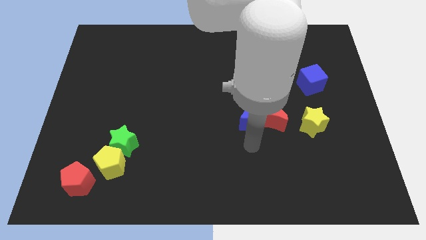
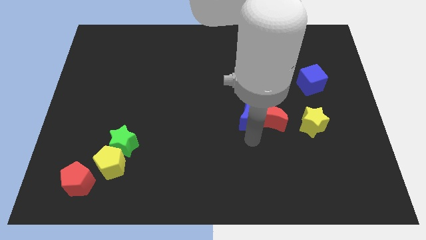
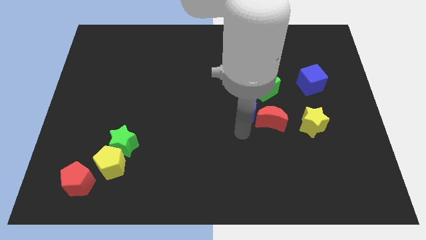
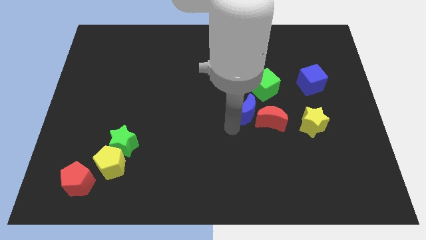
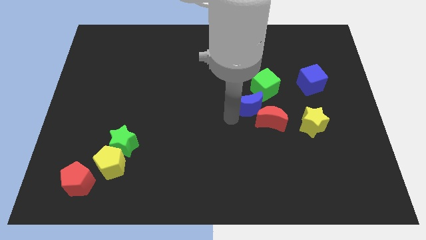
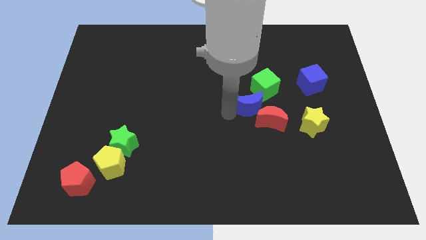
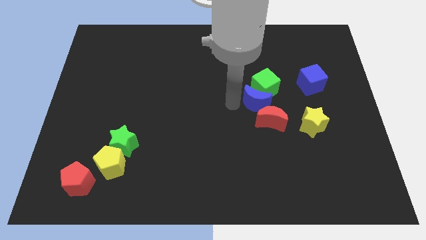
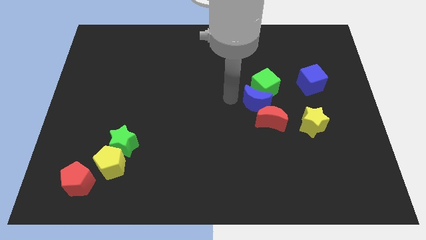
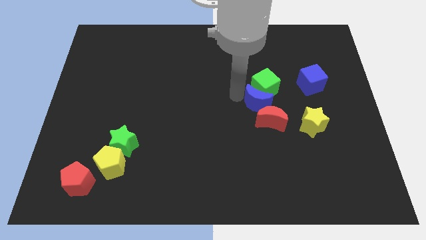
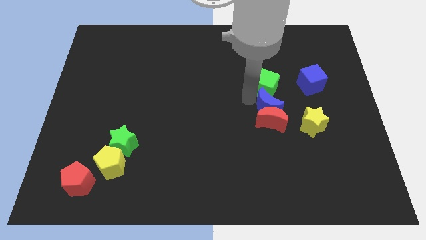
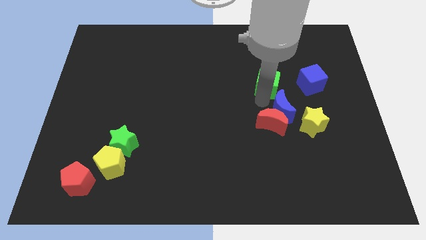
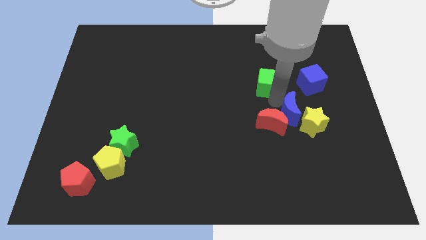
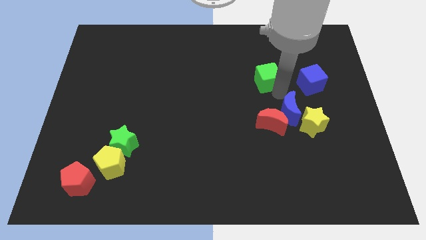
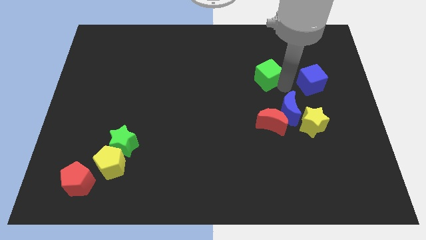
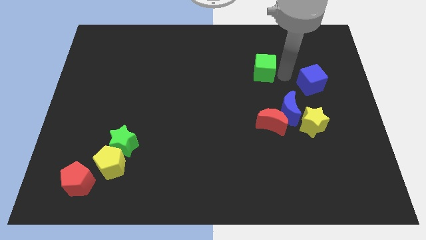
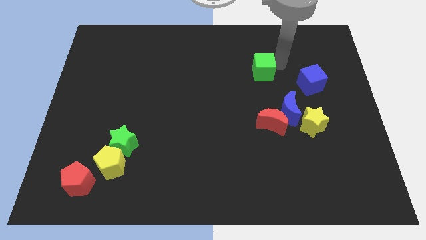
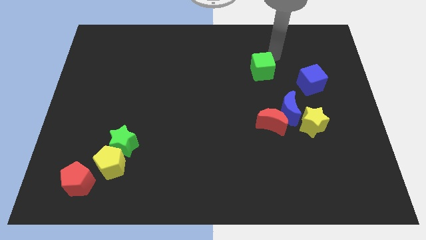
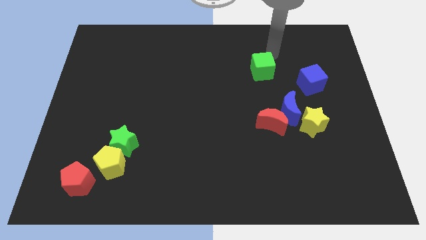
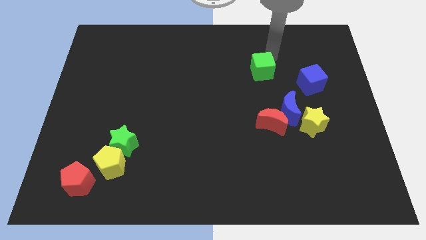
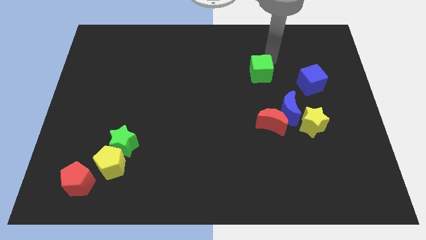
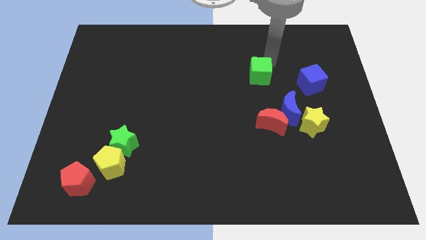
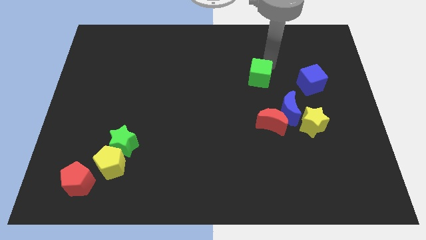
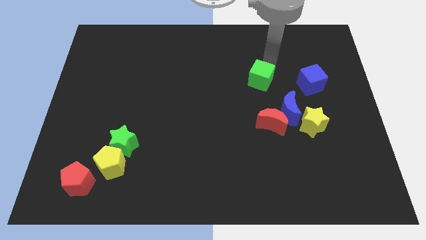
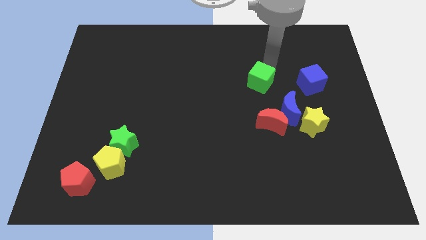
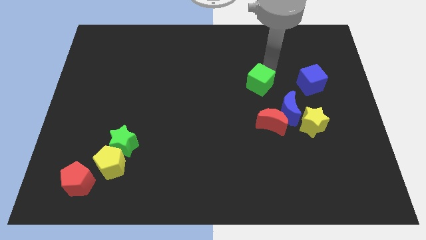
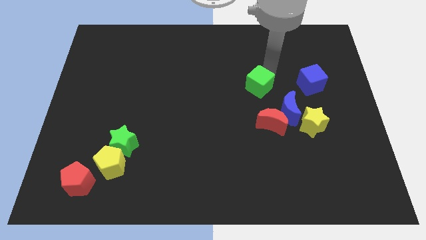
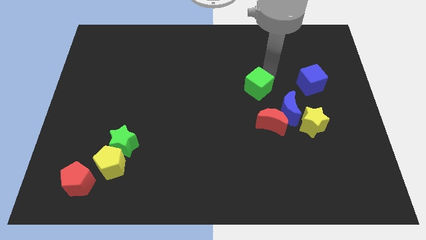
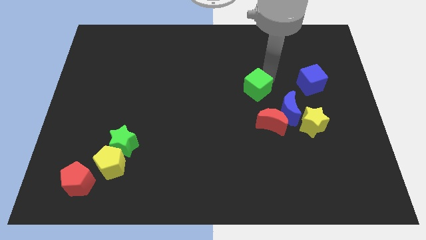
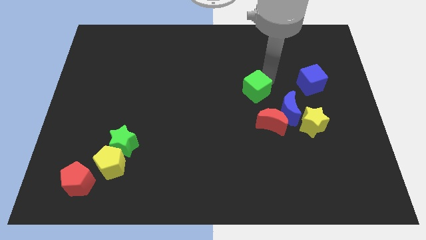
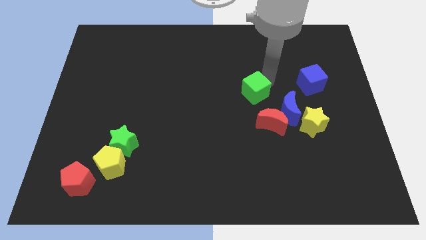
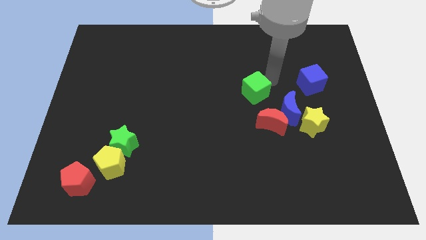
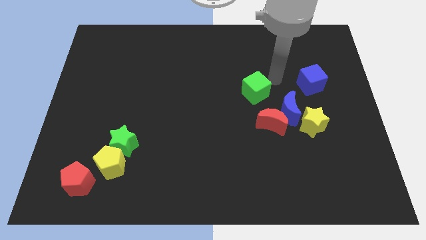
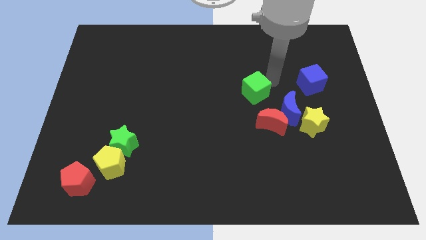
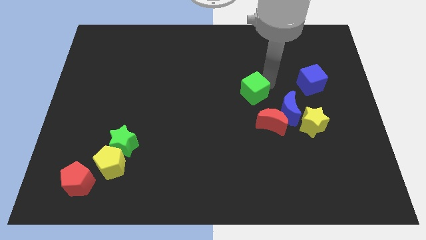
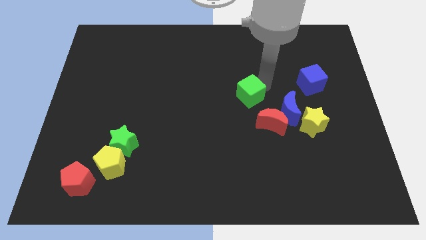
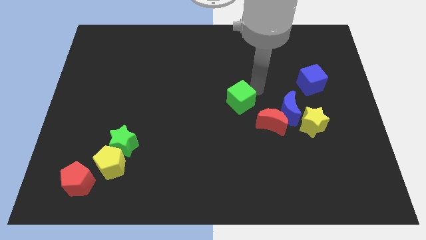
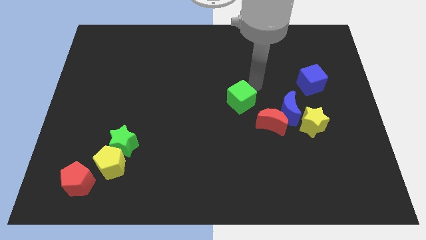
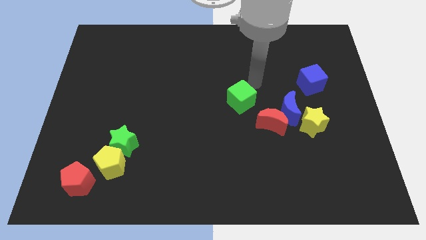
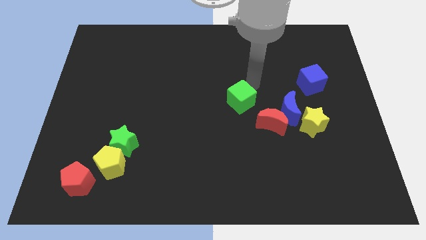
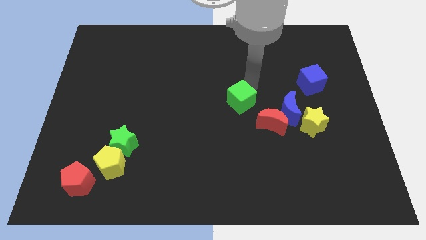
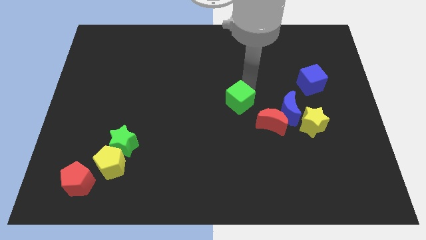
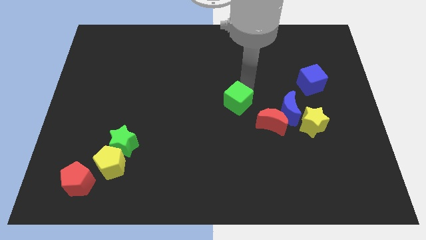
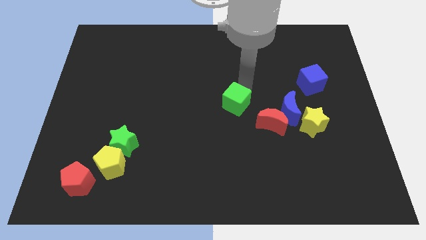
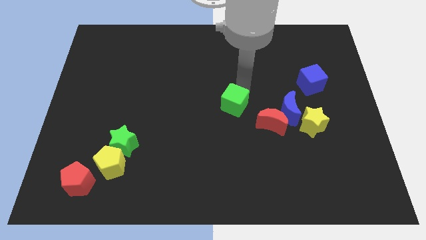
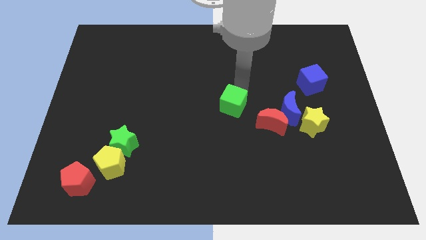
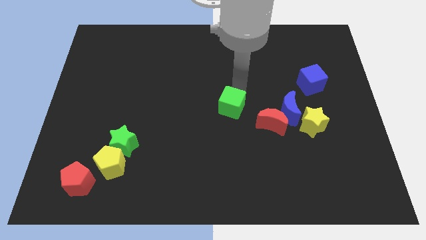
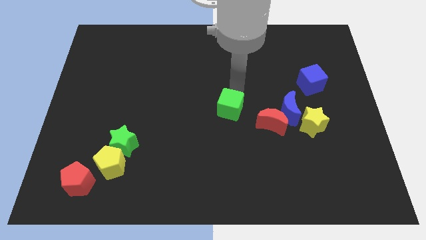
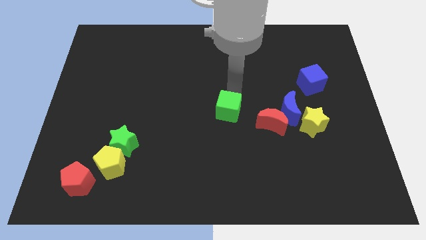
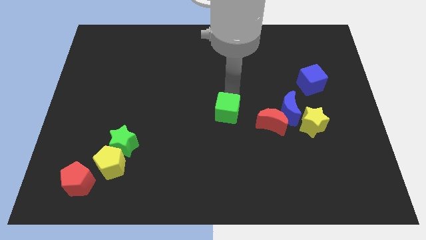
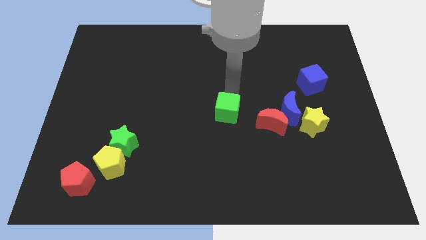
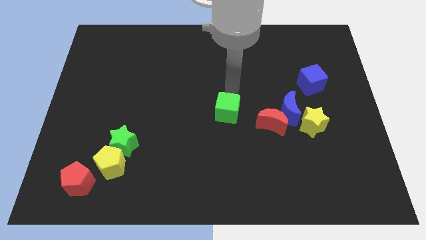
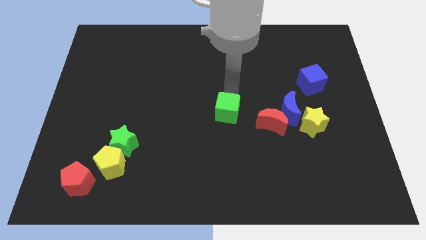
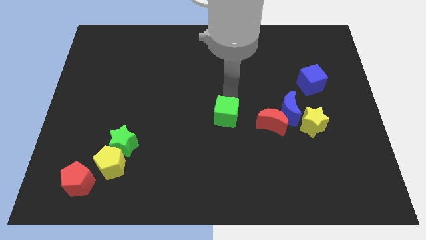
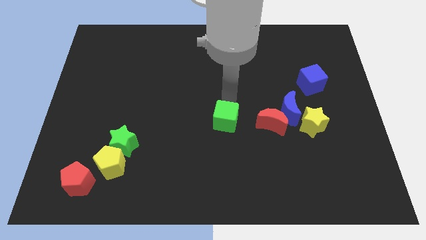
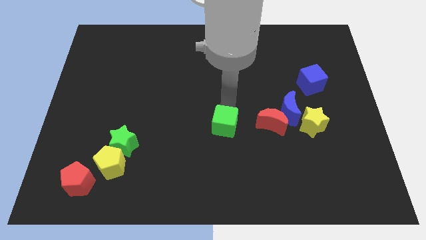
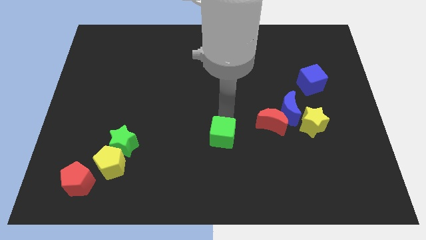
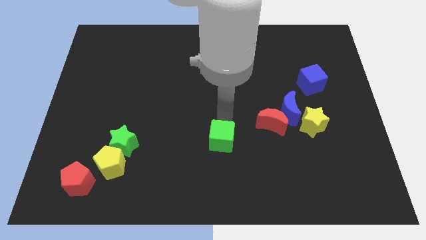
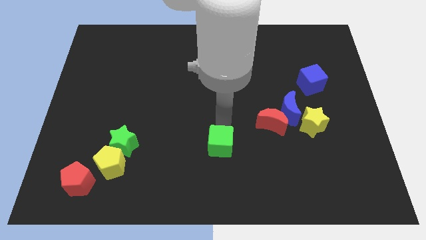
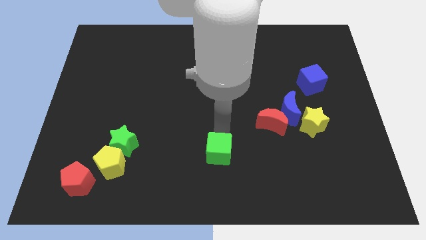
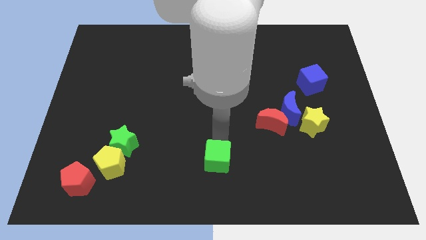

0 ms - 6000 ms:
push the green cube to the bottom
